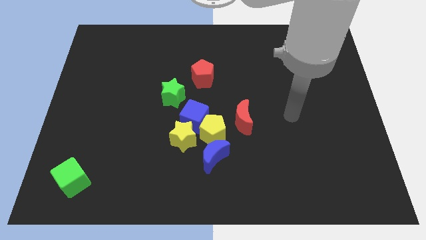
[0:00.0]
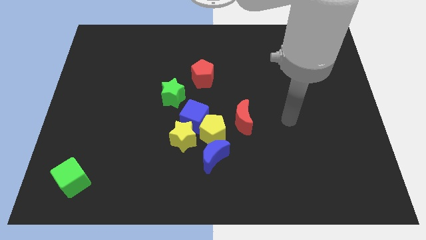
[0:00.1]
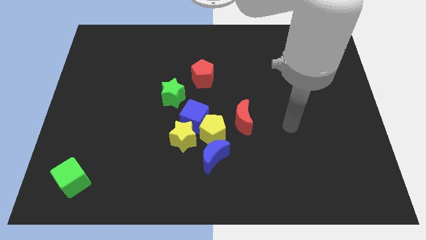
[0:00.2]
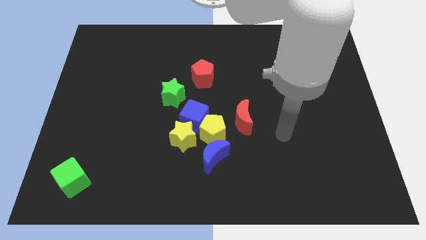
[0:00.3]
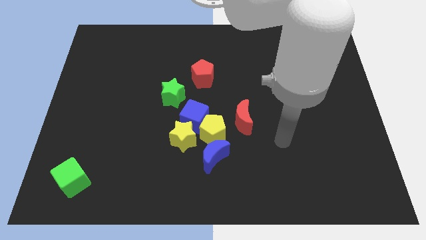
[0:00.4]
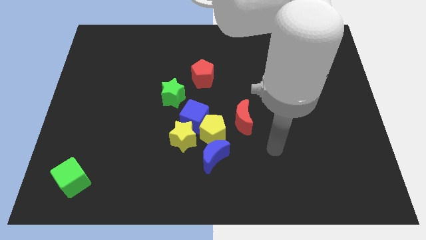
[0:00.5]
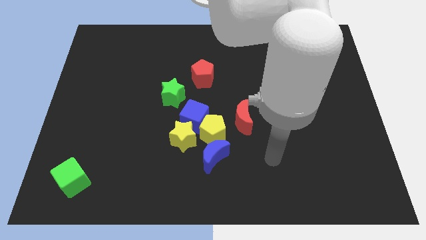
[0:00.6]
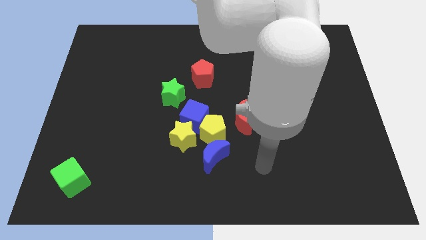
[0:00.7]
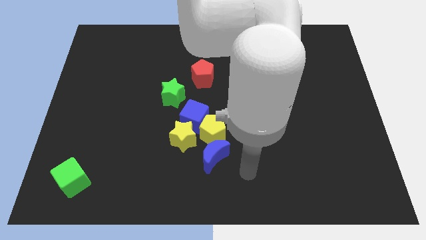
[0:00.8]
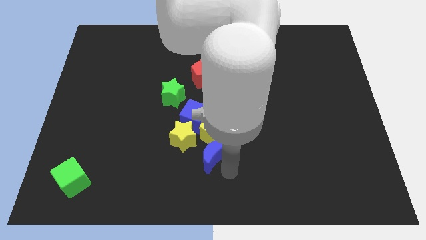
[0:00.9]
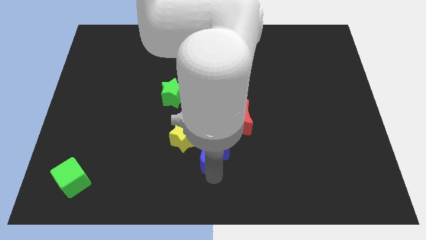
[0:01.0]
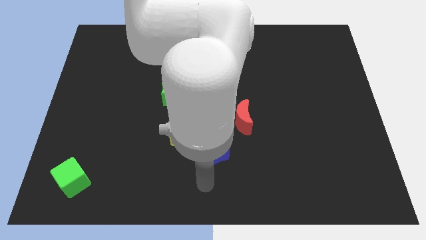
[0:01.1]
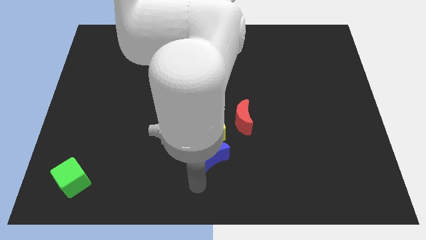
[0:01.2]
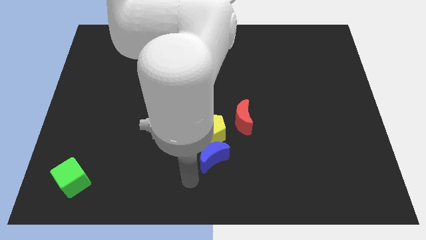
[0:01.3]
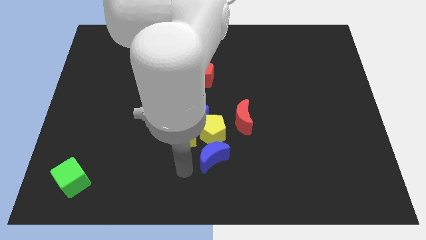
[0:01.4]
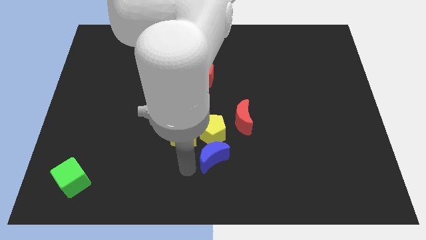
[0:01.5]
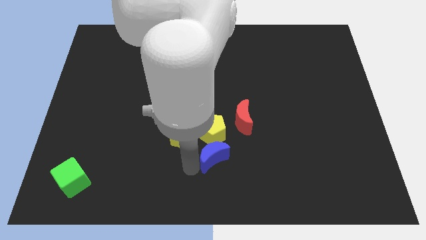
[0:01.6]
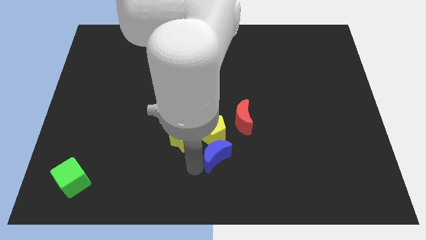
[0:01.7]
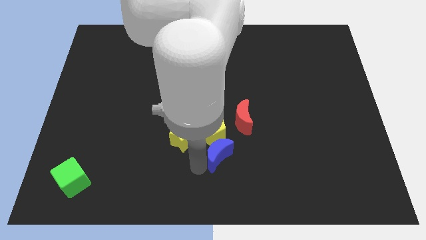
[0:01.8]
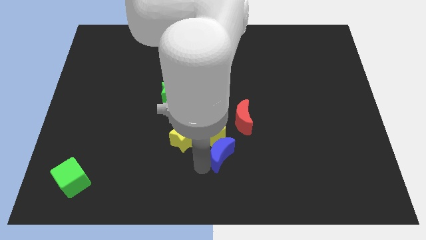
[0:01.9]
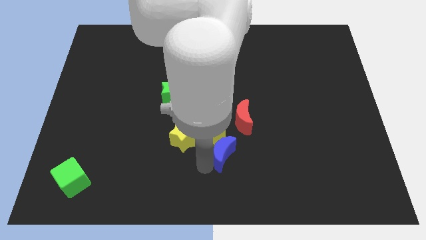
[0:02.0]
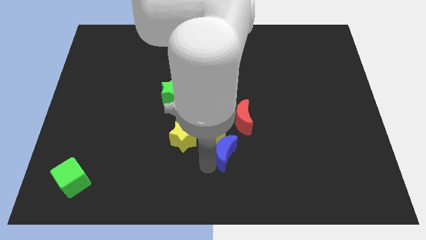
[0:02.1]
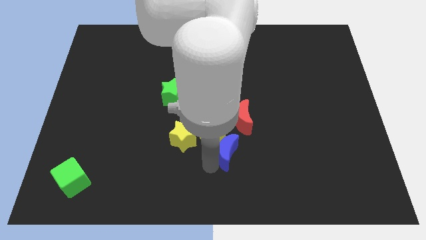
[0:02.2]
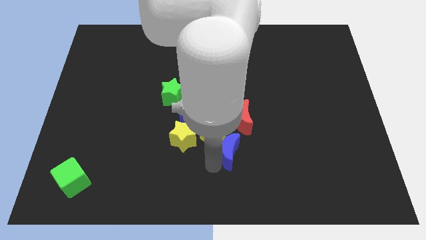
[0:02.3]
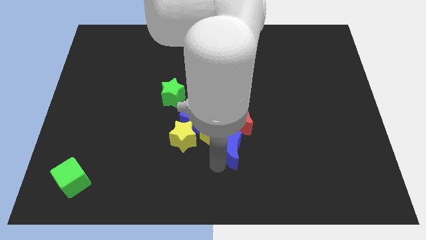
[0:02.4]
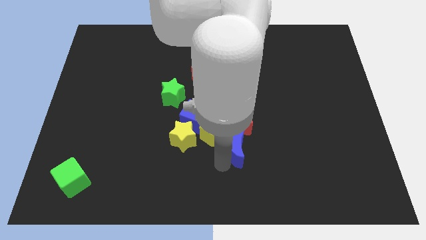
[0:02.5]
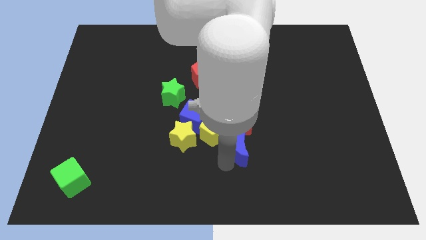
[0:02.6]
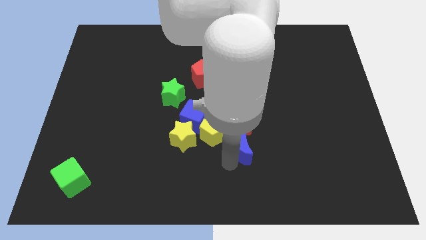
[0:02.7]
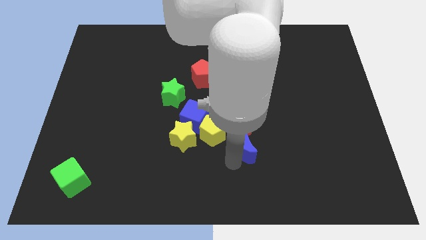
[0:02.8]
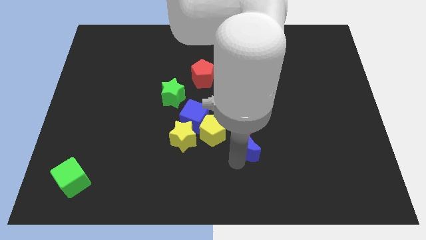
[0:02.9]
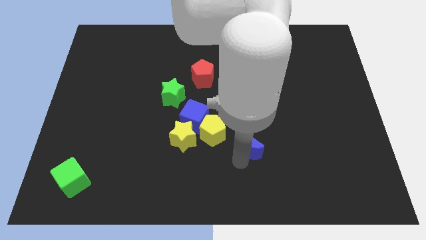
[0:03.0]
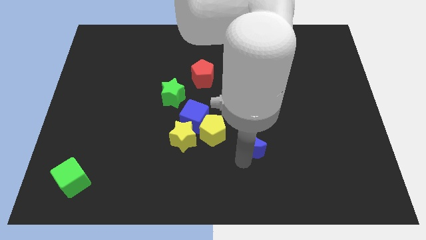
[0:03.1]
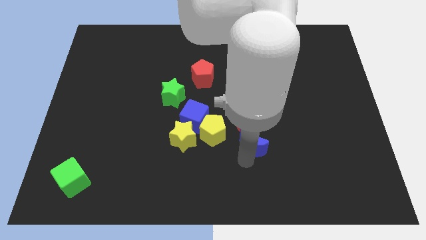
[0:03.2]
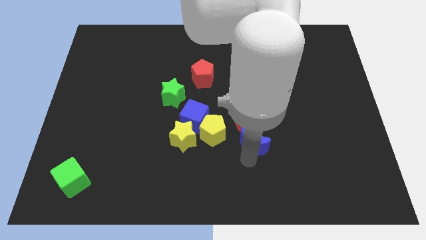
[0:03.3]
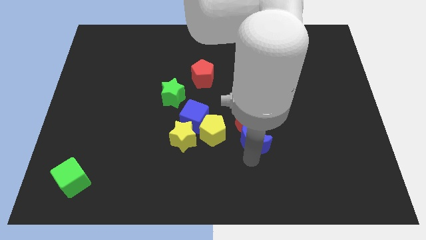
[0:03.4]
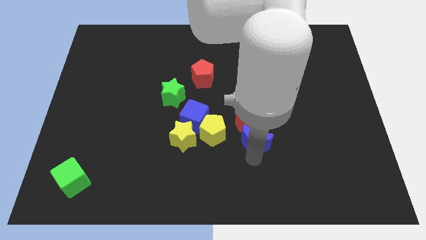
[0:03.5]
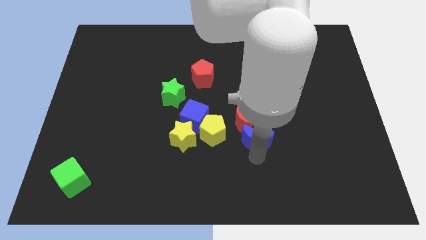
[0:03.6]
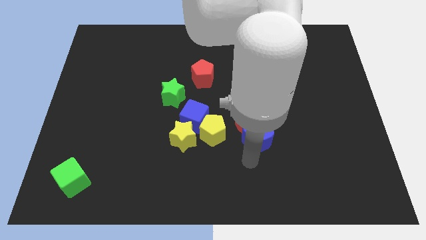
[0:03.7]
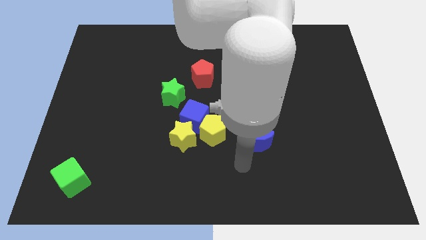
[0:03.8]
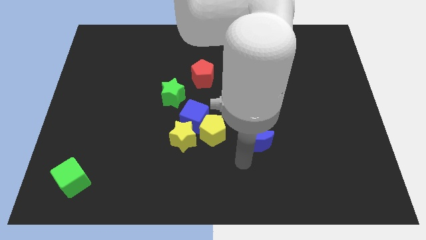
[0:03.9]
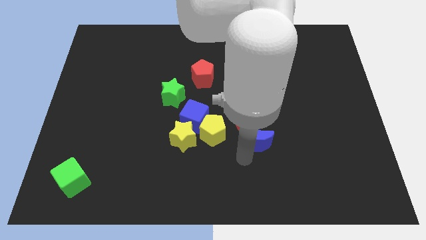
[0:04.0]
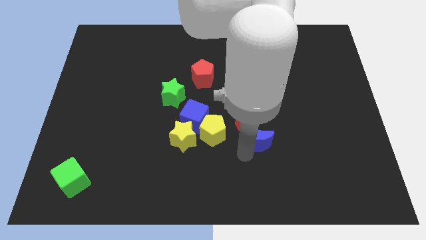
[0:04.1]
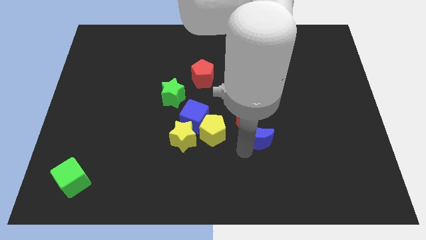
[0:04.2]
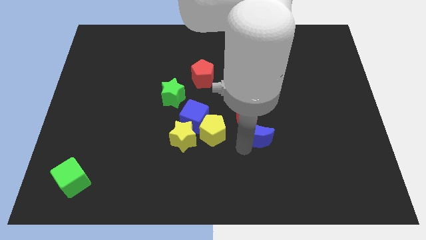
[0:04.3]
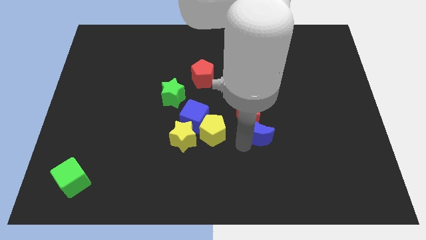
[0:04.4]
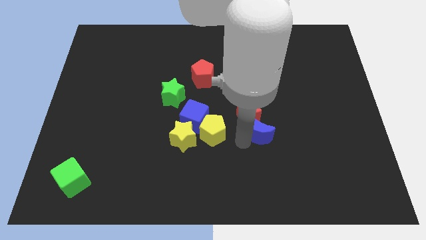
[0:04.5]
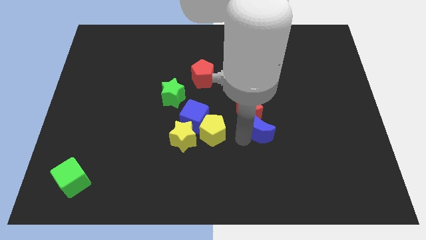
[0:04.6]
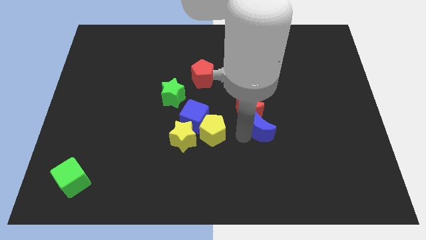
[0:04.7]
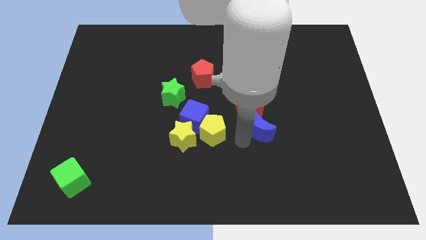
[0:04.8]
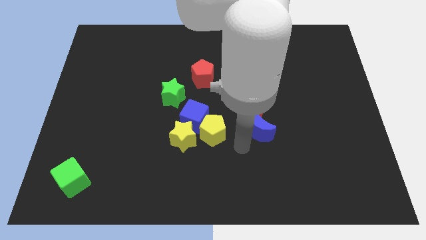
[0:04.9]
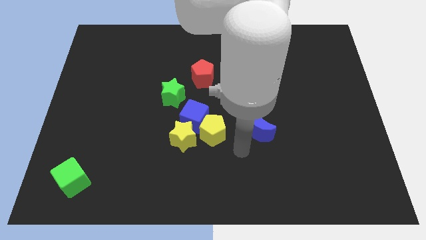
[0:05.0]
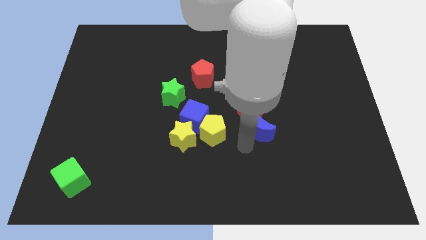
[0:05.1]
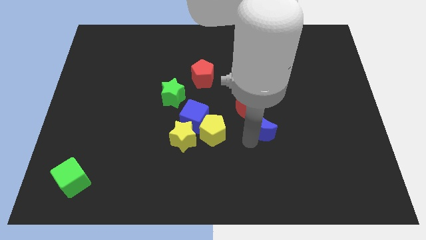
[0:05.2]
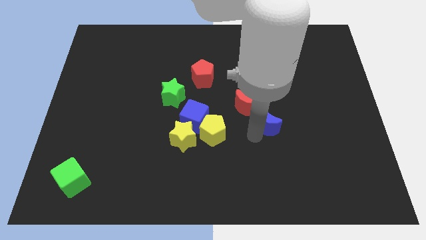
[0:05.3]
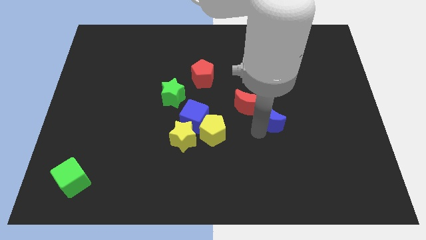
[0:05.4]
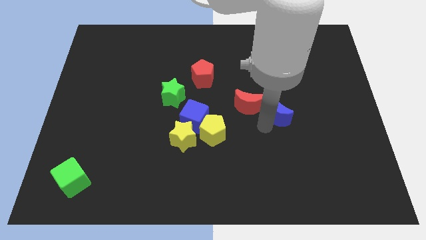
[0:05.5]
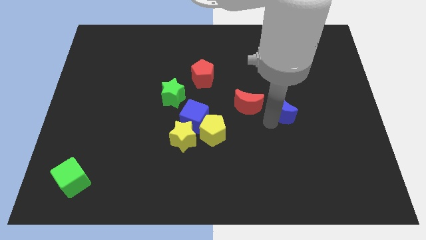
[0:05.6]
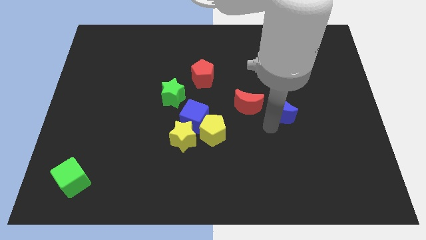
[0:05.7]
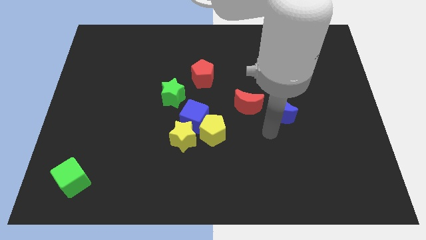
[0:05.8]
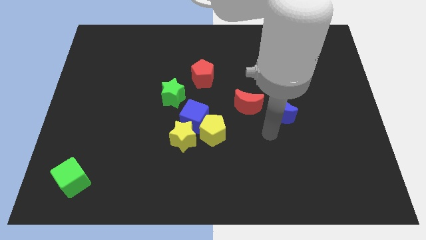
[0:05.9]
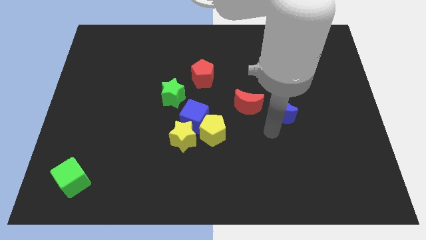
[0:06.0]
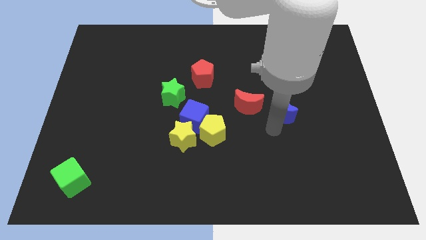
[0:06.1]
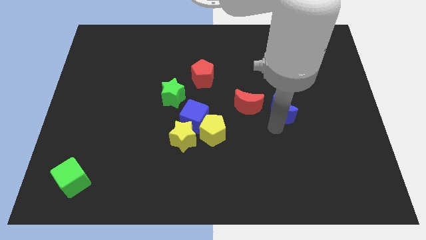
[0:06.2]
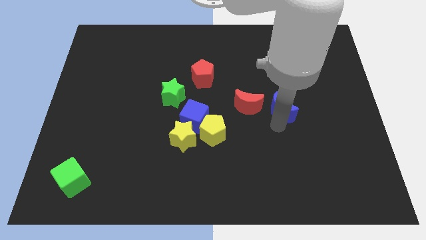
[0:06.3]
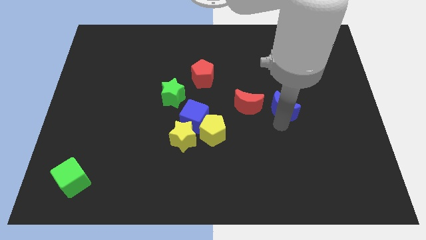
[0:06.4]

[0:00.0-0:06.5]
slide the blue moon upwards and right diagonally

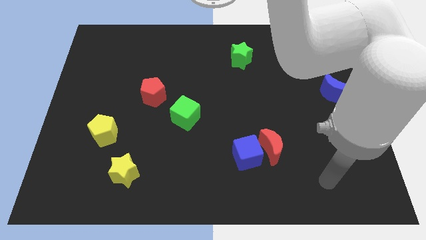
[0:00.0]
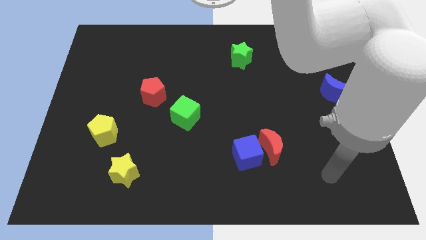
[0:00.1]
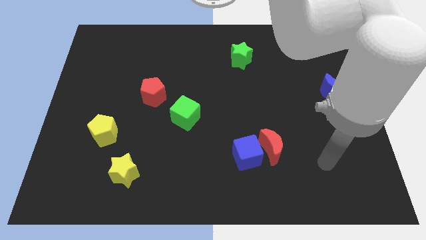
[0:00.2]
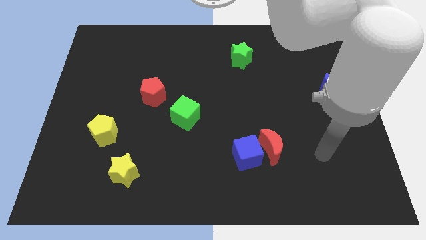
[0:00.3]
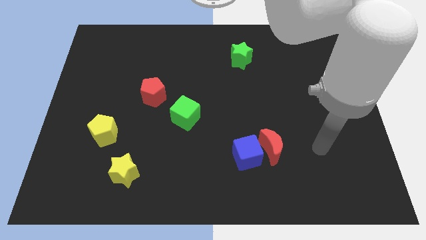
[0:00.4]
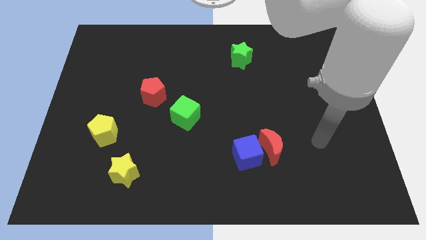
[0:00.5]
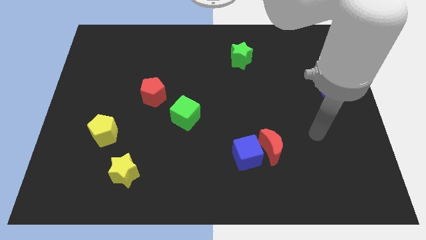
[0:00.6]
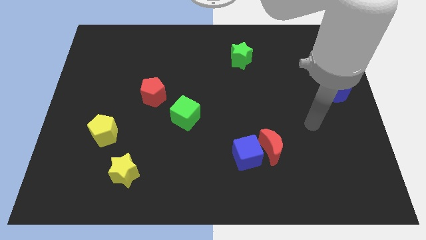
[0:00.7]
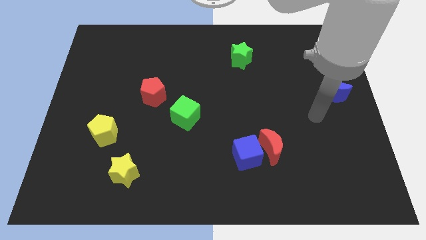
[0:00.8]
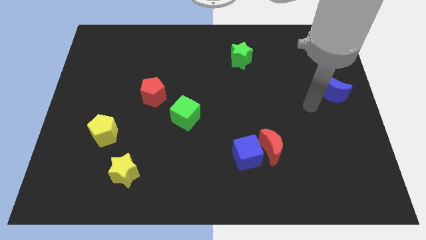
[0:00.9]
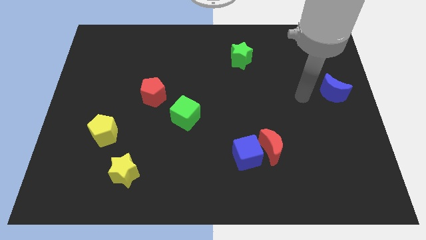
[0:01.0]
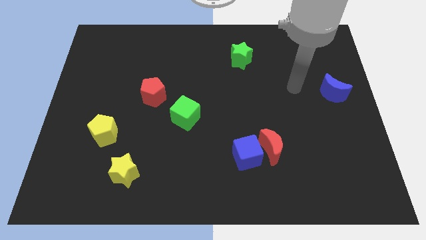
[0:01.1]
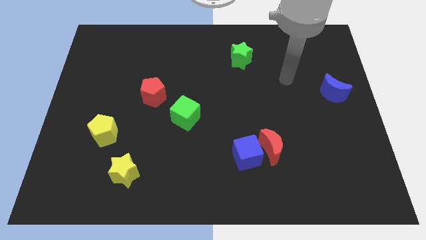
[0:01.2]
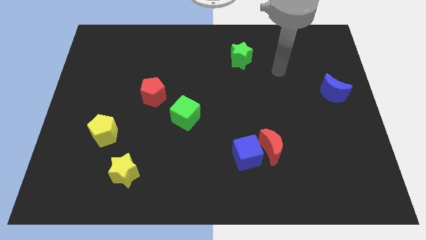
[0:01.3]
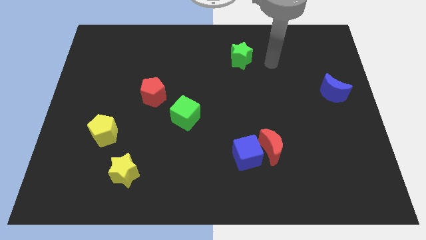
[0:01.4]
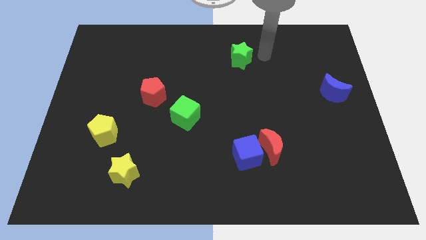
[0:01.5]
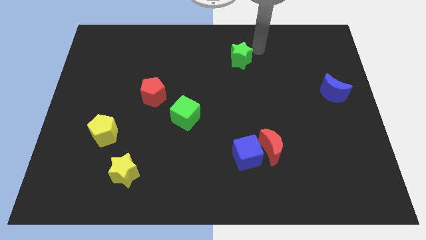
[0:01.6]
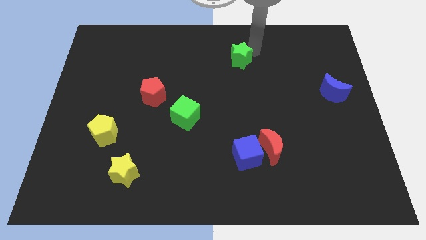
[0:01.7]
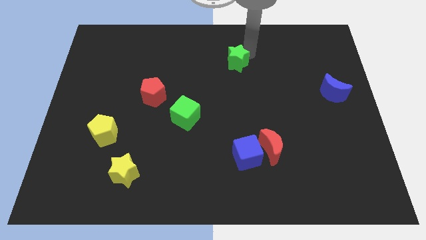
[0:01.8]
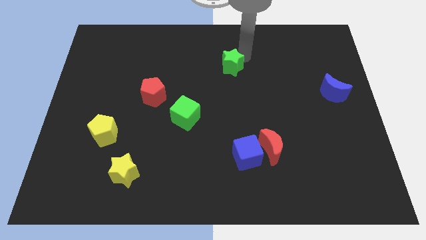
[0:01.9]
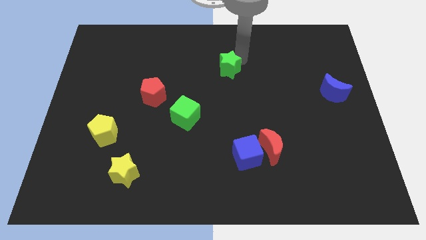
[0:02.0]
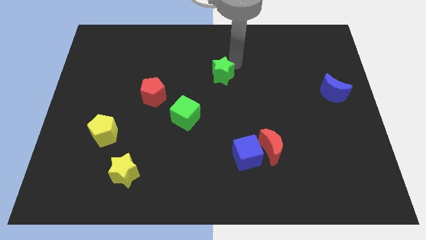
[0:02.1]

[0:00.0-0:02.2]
slightly slide the green star down and then to the left
